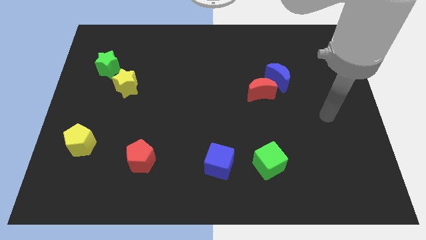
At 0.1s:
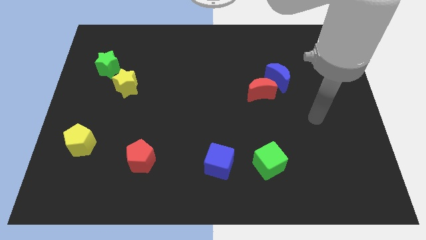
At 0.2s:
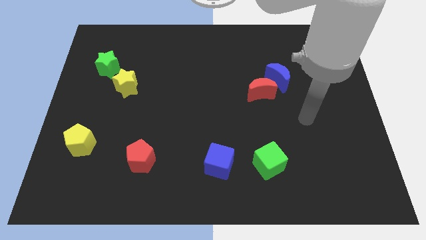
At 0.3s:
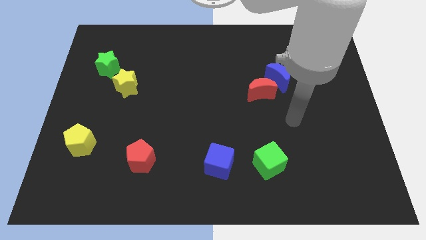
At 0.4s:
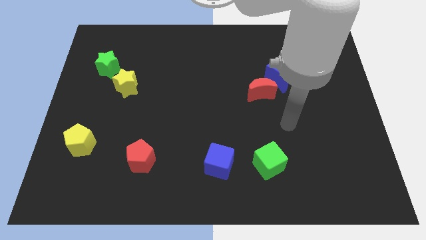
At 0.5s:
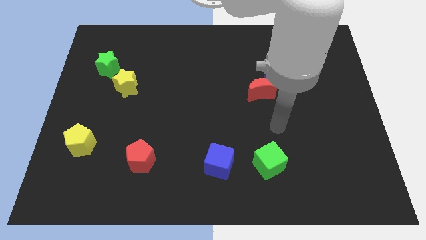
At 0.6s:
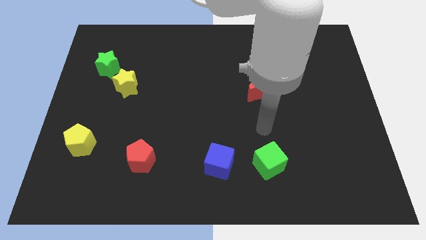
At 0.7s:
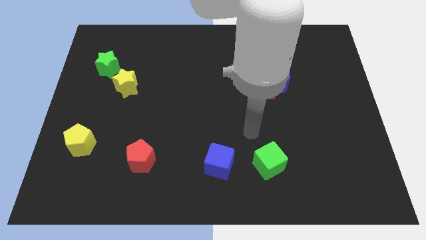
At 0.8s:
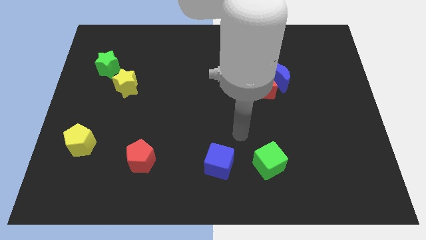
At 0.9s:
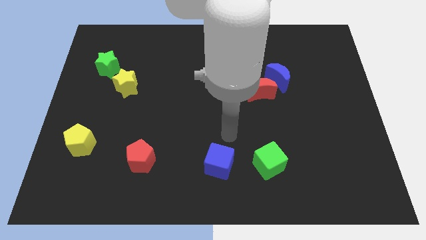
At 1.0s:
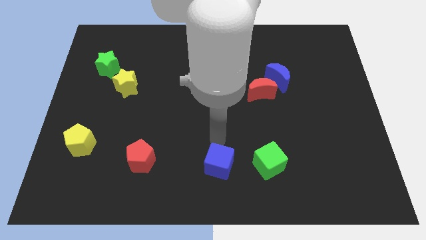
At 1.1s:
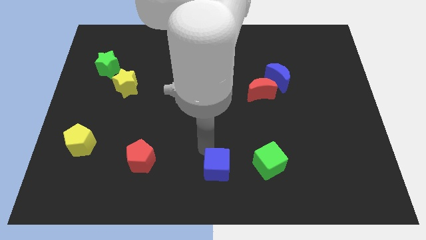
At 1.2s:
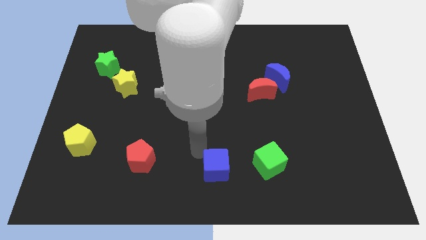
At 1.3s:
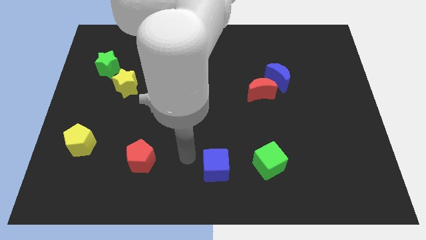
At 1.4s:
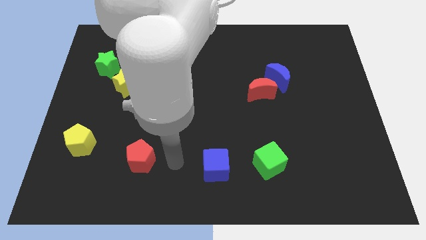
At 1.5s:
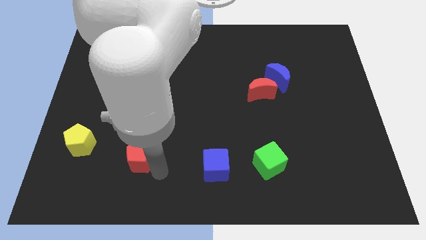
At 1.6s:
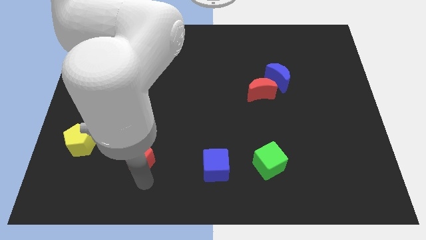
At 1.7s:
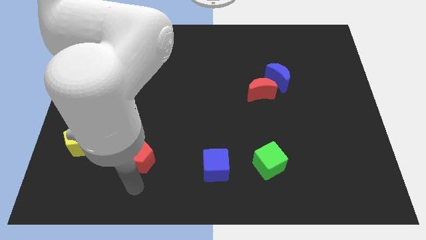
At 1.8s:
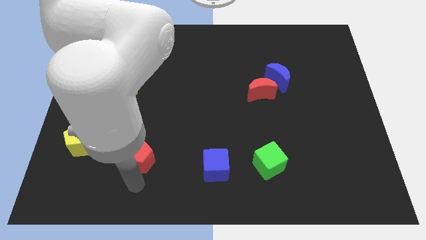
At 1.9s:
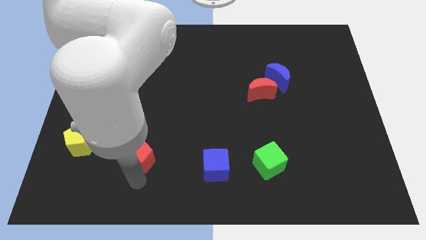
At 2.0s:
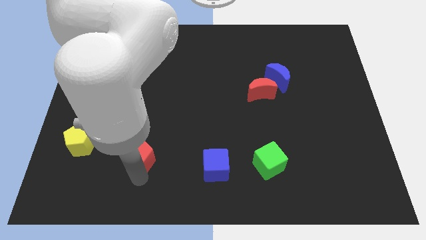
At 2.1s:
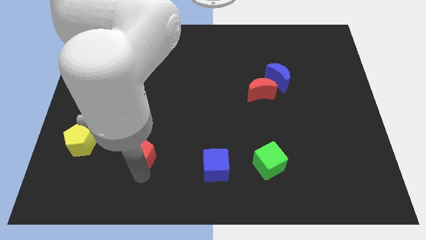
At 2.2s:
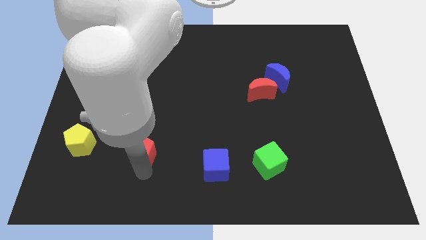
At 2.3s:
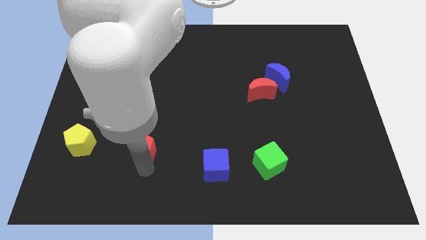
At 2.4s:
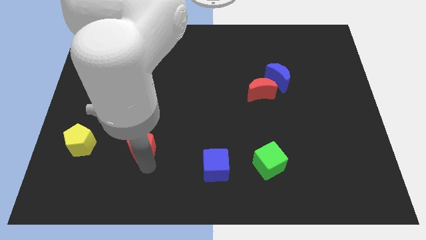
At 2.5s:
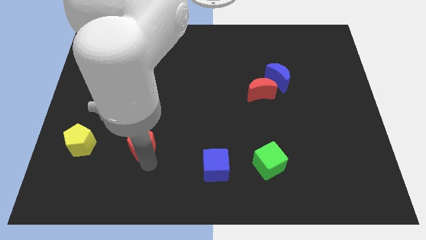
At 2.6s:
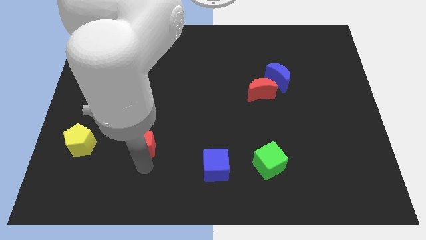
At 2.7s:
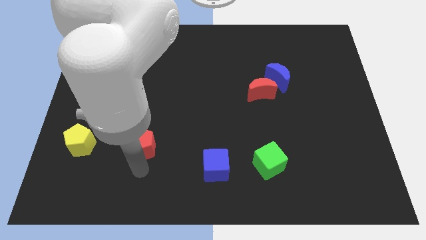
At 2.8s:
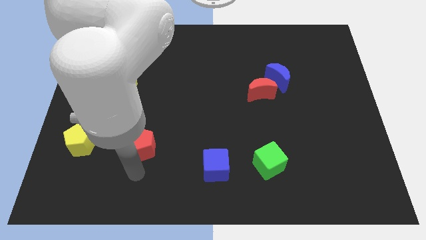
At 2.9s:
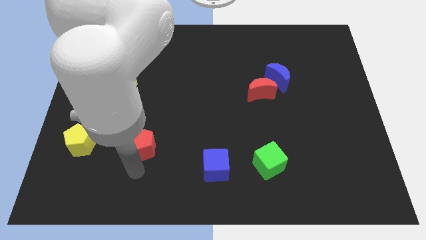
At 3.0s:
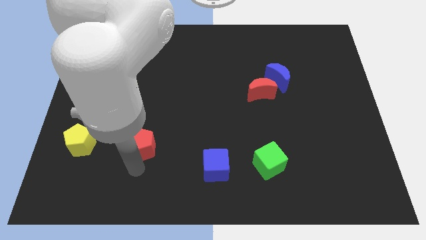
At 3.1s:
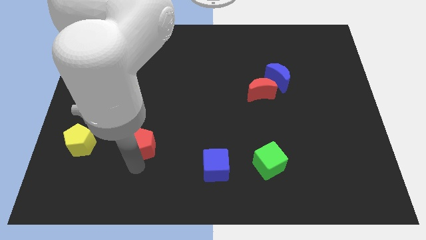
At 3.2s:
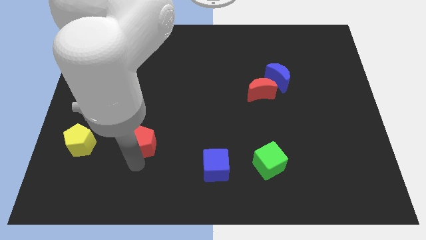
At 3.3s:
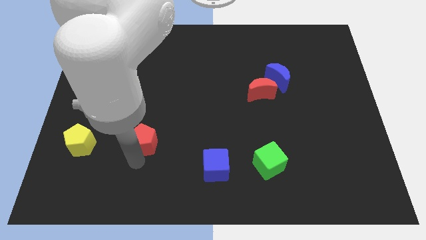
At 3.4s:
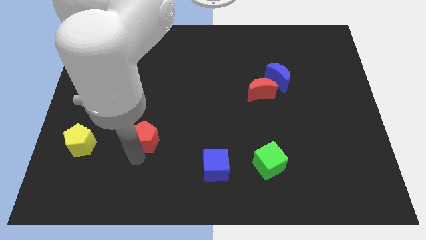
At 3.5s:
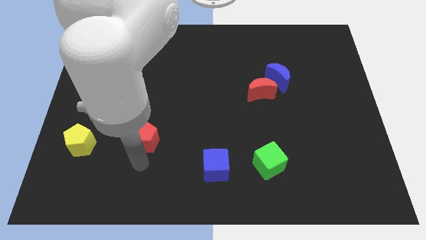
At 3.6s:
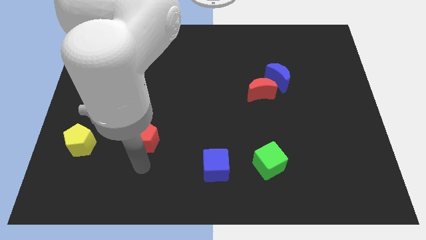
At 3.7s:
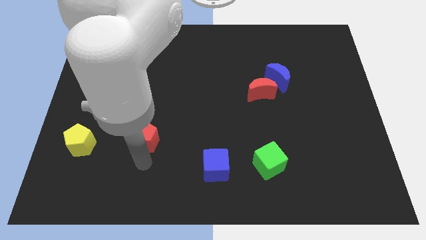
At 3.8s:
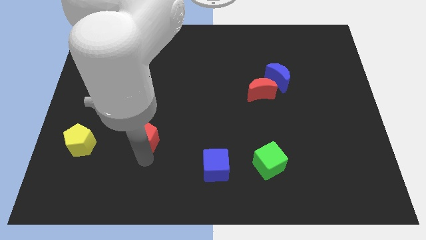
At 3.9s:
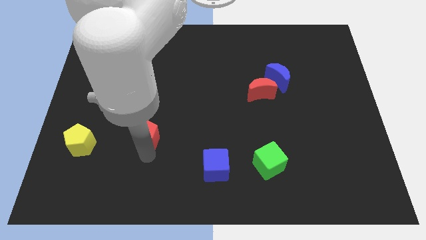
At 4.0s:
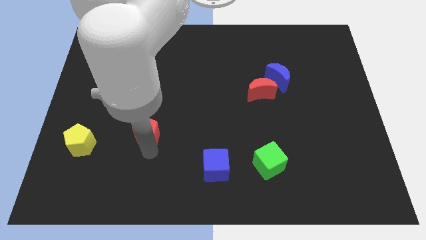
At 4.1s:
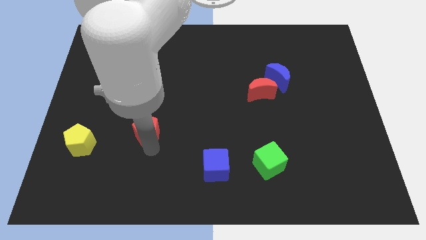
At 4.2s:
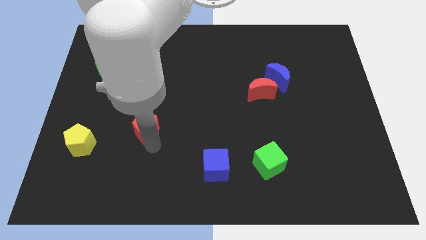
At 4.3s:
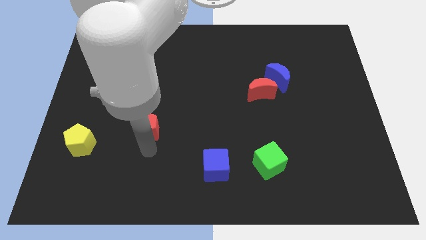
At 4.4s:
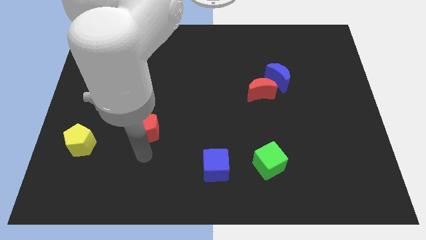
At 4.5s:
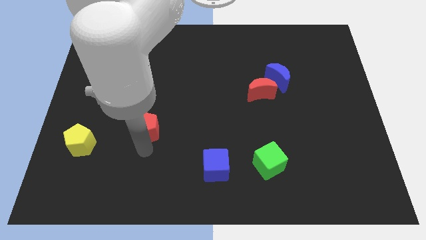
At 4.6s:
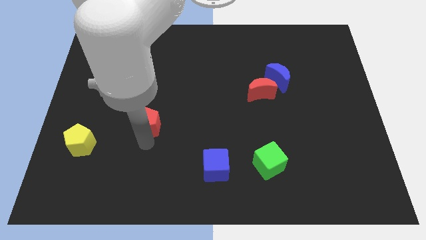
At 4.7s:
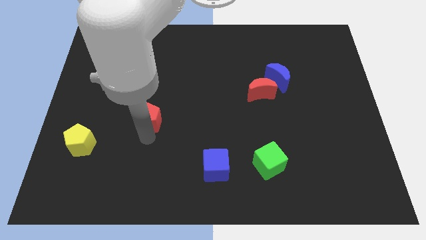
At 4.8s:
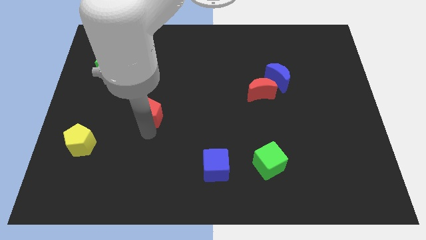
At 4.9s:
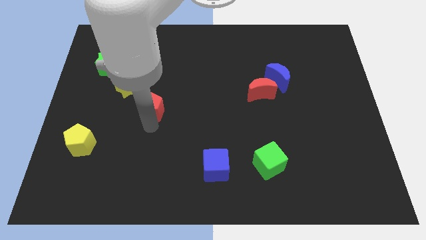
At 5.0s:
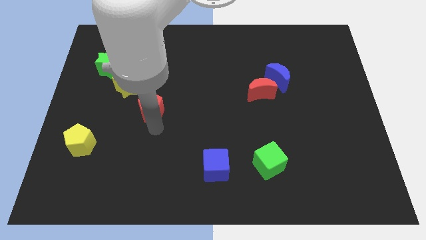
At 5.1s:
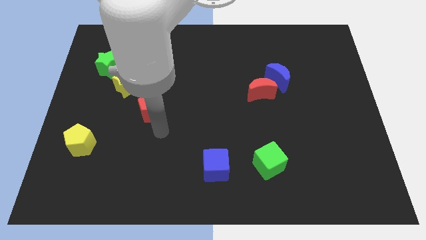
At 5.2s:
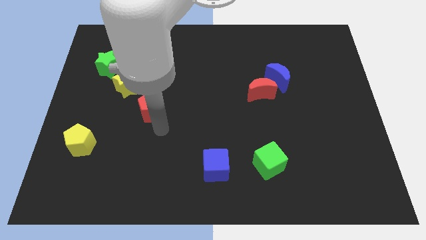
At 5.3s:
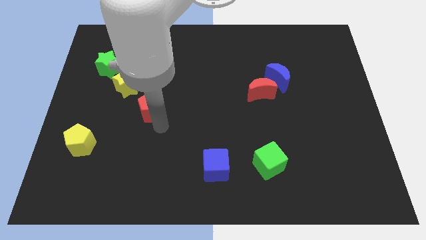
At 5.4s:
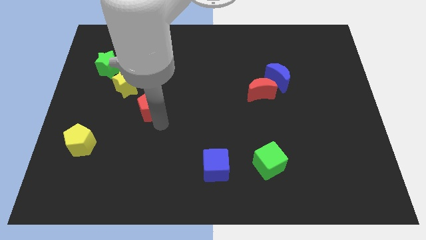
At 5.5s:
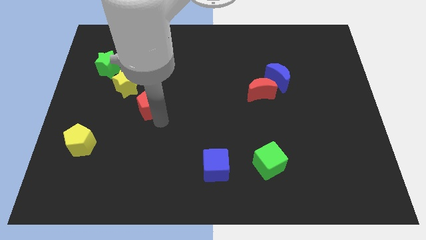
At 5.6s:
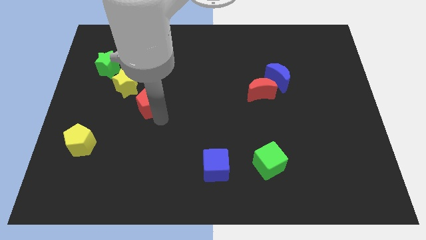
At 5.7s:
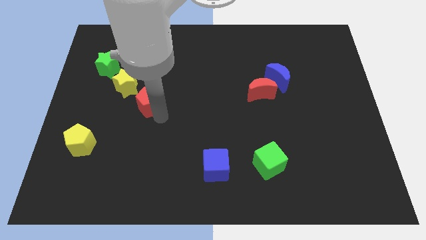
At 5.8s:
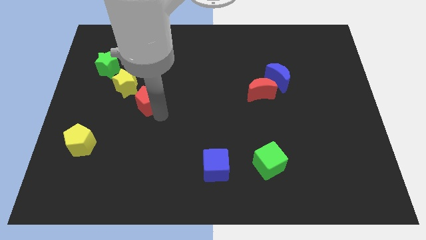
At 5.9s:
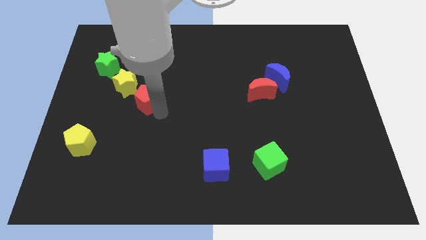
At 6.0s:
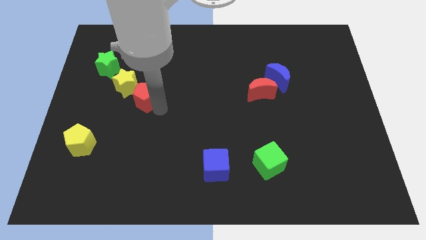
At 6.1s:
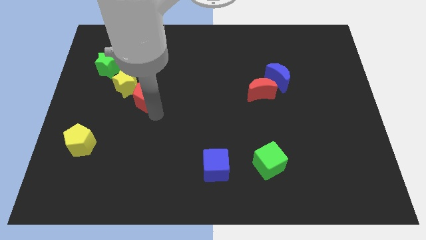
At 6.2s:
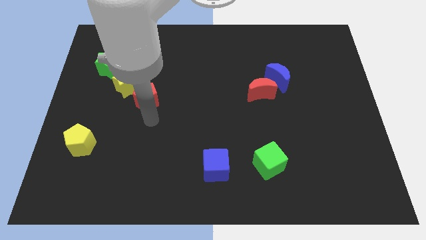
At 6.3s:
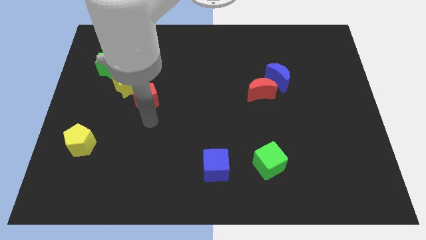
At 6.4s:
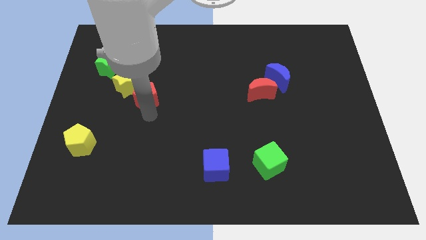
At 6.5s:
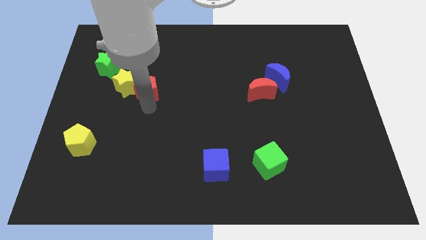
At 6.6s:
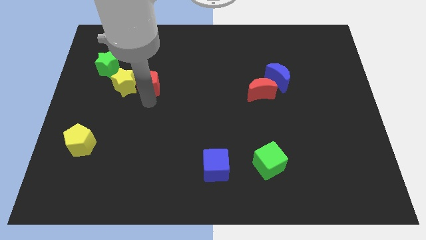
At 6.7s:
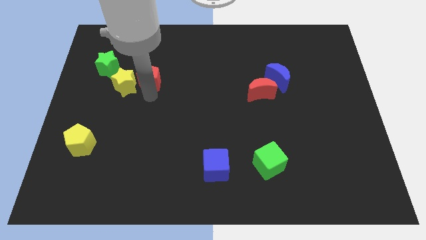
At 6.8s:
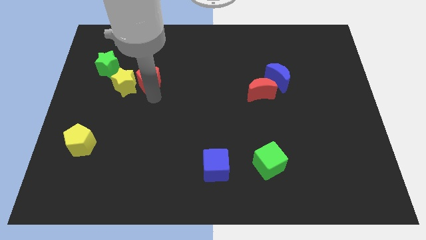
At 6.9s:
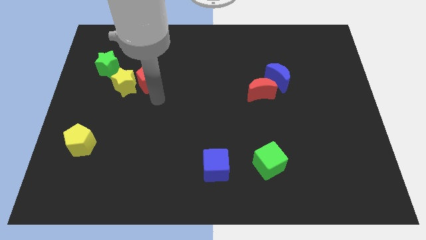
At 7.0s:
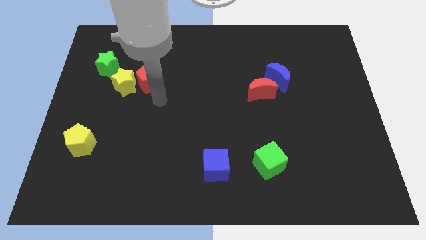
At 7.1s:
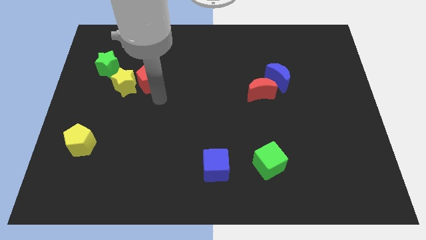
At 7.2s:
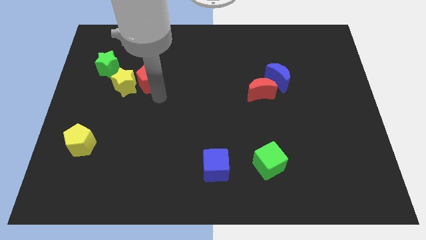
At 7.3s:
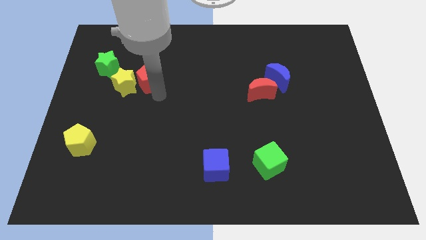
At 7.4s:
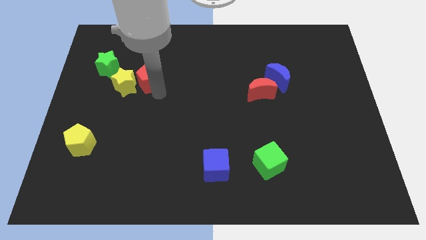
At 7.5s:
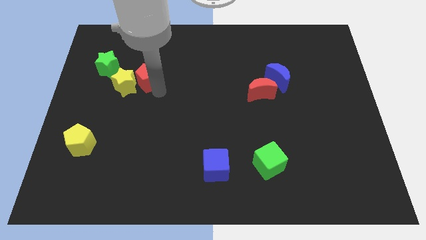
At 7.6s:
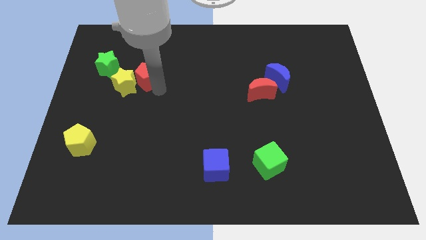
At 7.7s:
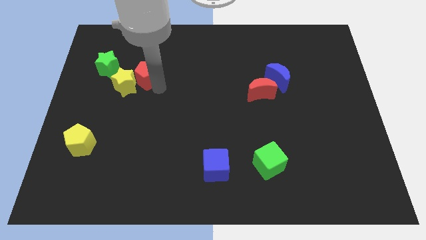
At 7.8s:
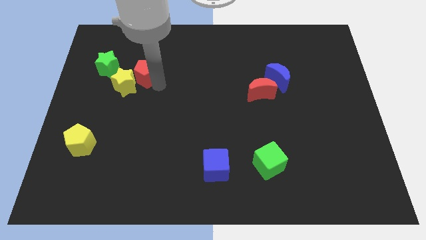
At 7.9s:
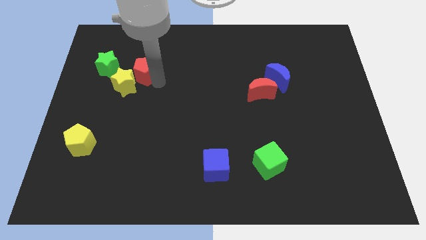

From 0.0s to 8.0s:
move the red pentagon to the top side of the yellow star
